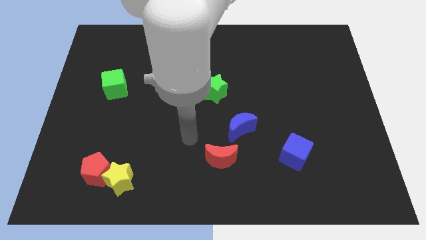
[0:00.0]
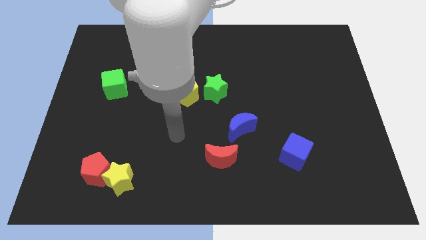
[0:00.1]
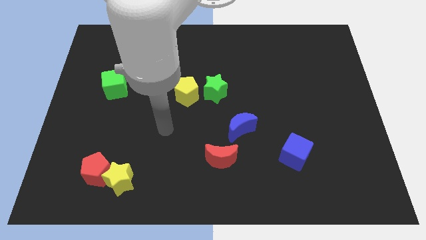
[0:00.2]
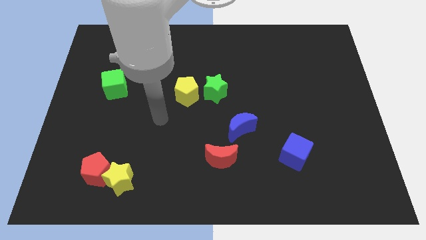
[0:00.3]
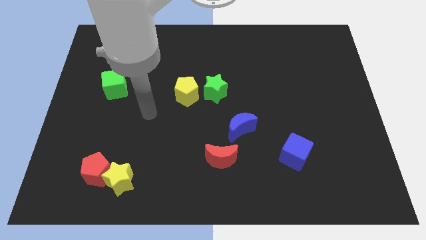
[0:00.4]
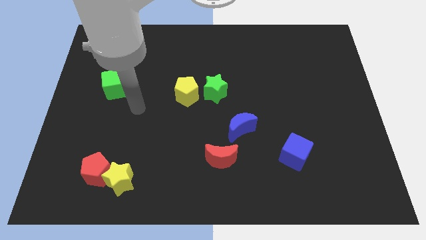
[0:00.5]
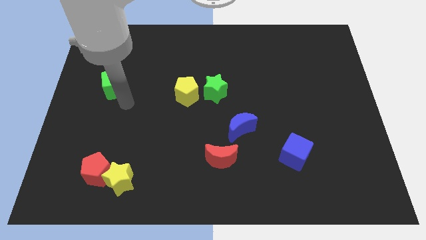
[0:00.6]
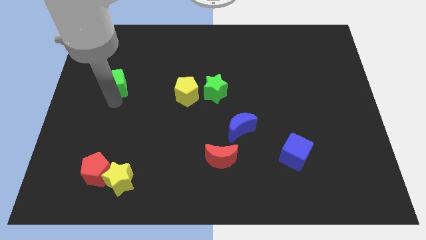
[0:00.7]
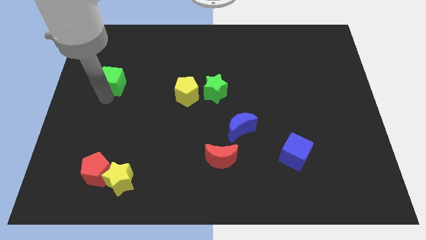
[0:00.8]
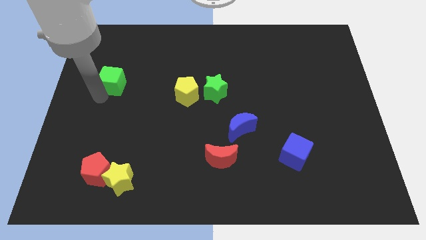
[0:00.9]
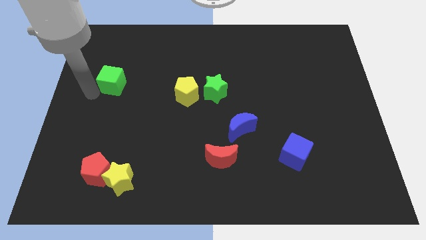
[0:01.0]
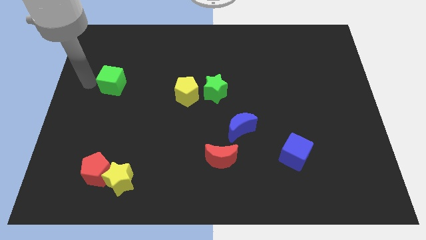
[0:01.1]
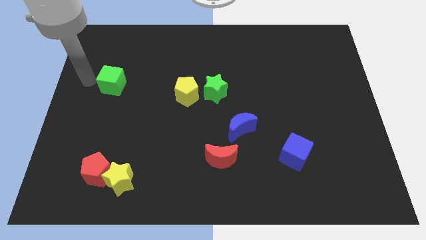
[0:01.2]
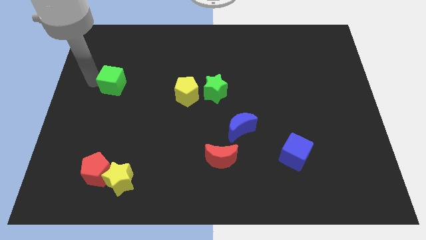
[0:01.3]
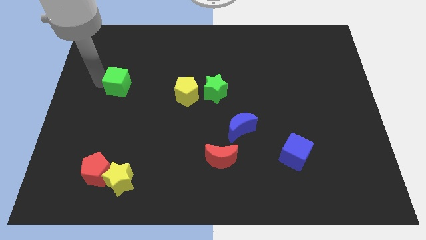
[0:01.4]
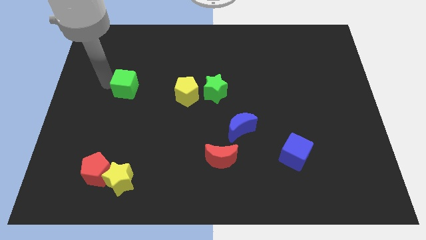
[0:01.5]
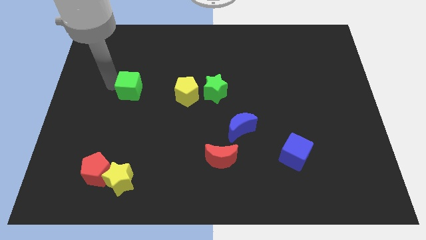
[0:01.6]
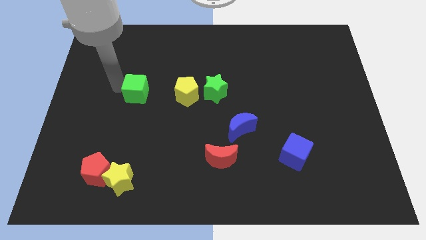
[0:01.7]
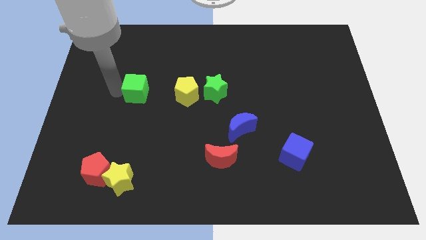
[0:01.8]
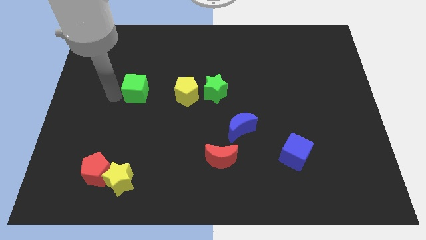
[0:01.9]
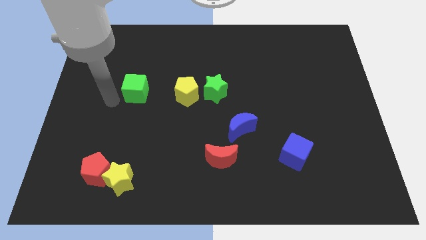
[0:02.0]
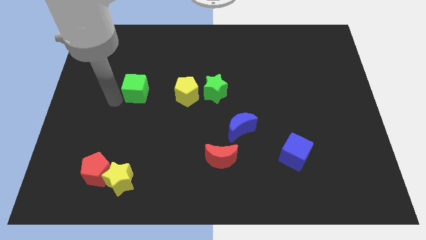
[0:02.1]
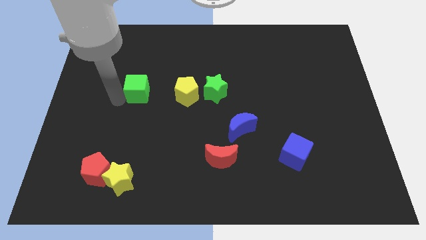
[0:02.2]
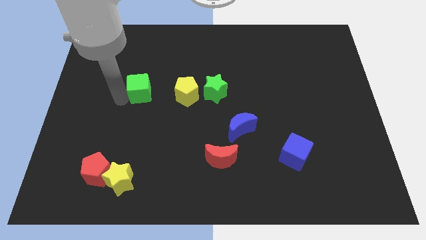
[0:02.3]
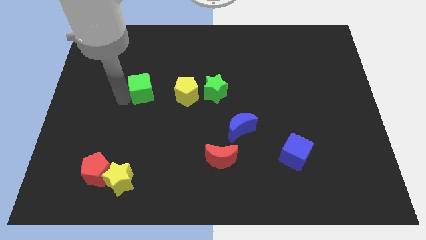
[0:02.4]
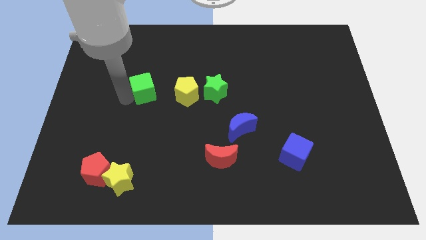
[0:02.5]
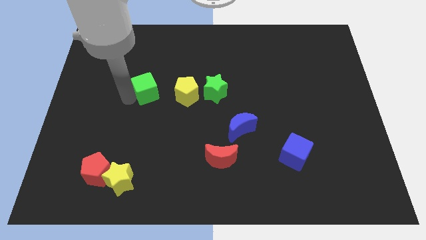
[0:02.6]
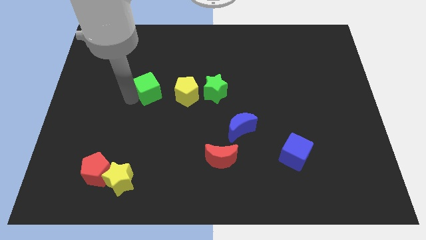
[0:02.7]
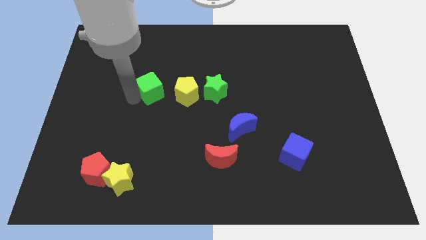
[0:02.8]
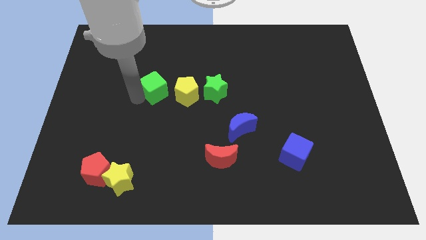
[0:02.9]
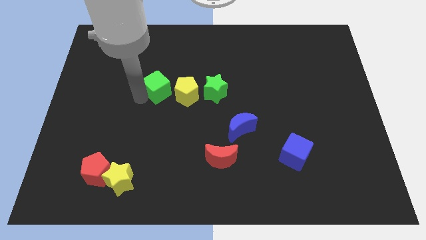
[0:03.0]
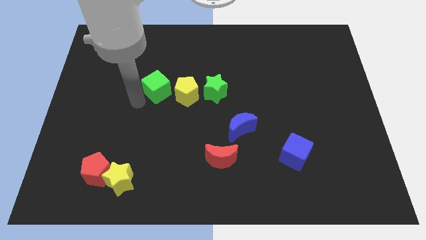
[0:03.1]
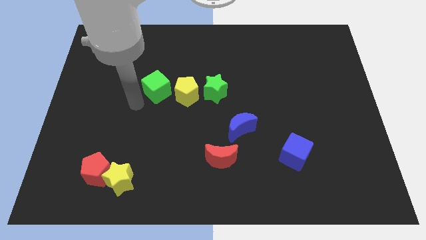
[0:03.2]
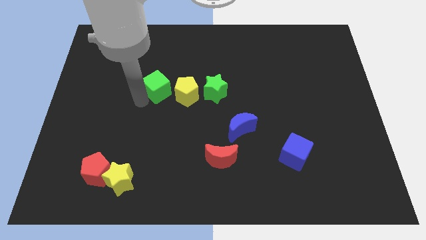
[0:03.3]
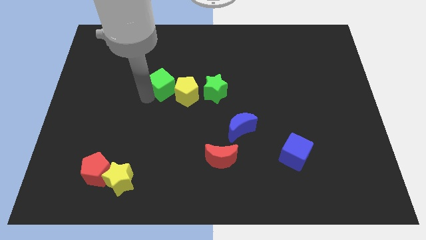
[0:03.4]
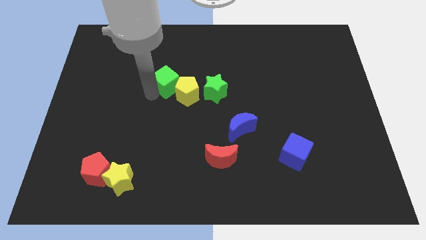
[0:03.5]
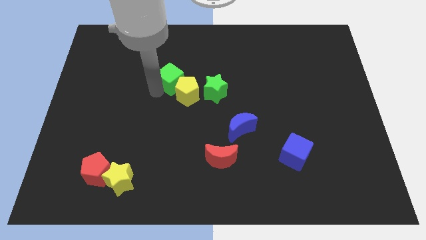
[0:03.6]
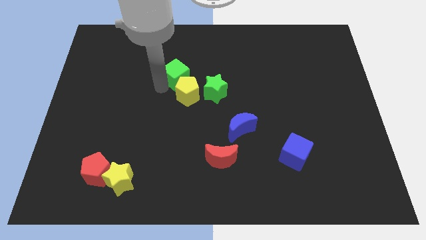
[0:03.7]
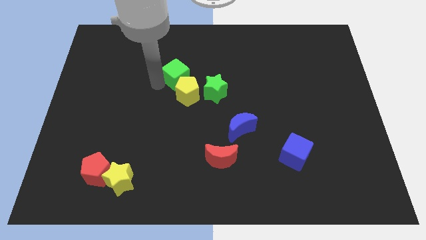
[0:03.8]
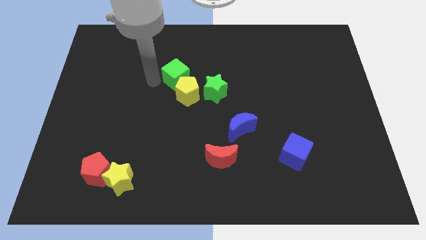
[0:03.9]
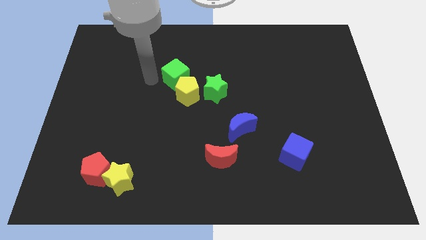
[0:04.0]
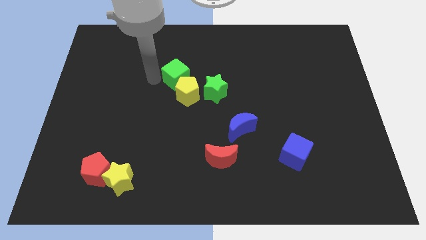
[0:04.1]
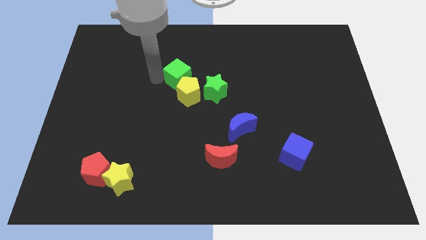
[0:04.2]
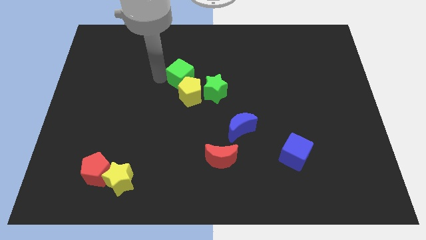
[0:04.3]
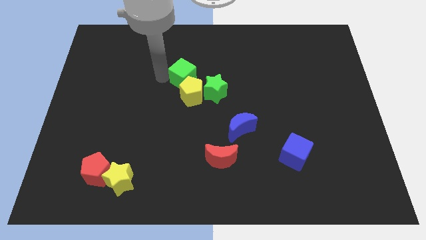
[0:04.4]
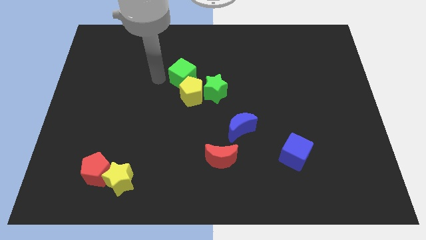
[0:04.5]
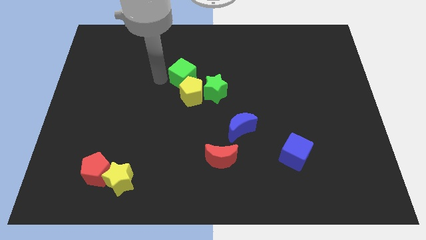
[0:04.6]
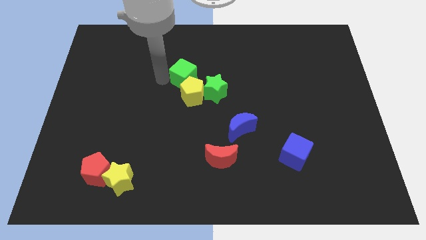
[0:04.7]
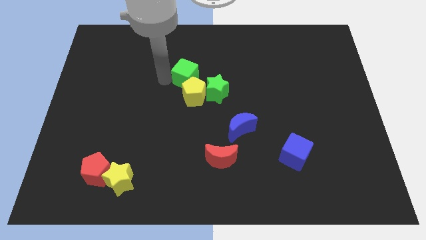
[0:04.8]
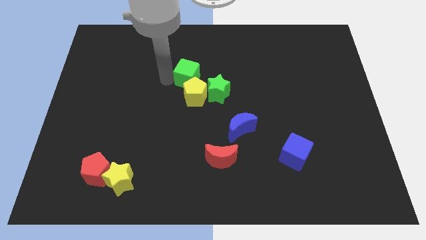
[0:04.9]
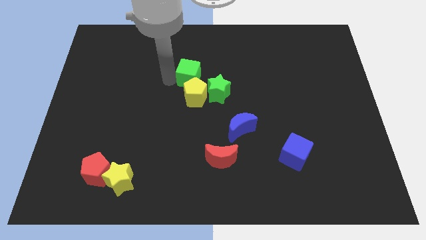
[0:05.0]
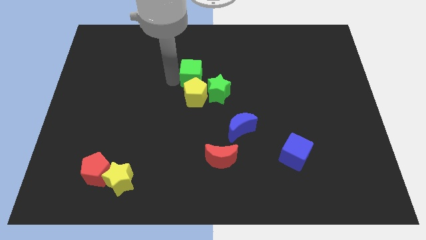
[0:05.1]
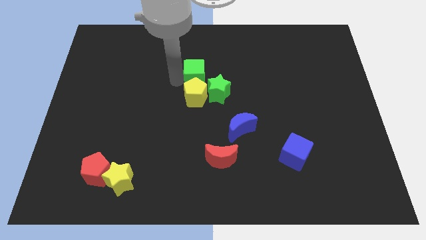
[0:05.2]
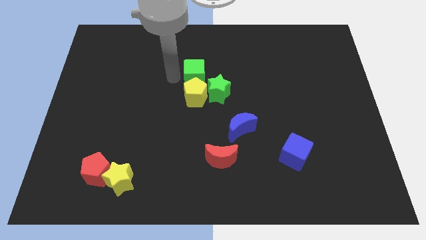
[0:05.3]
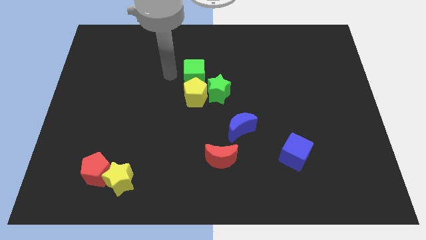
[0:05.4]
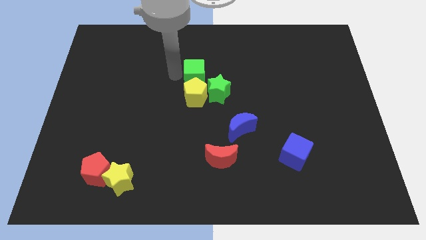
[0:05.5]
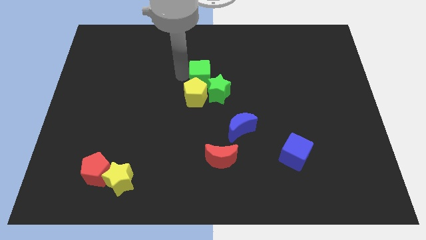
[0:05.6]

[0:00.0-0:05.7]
move the green cube to the right

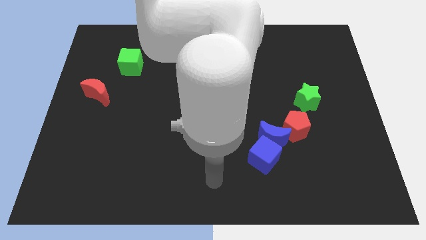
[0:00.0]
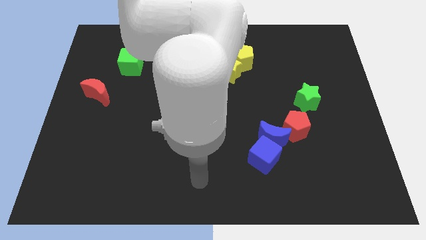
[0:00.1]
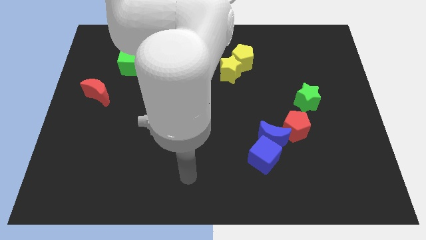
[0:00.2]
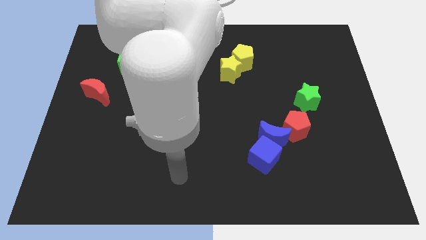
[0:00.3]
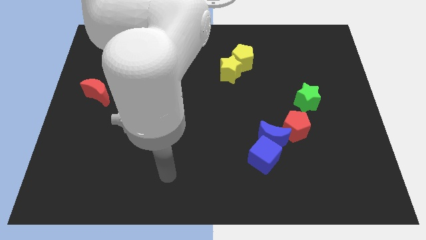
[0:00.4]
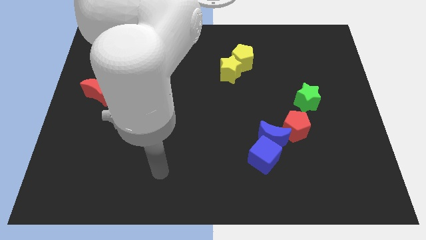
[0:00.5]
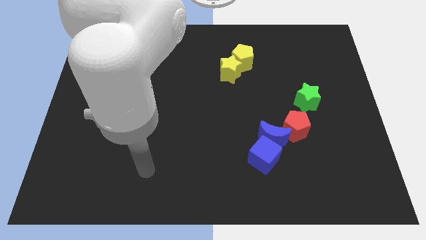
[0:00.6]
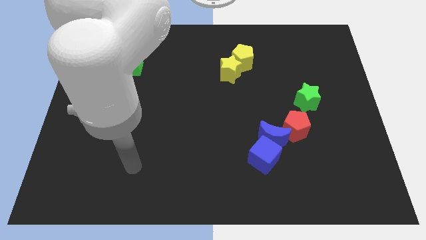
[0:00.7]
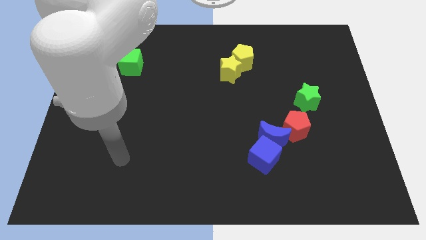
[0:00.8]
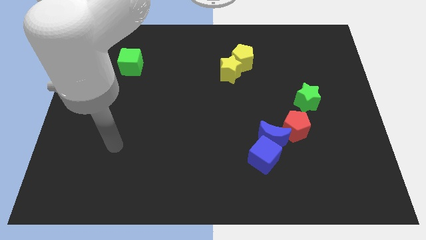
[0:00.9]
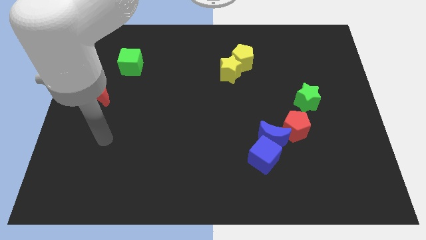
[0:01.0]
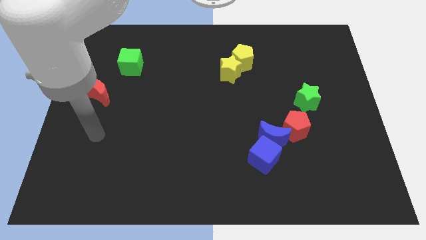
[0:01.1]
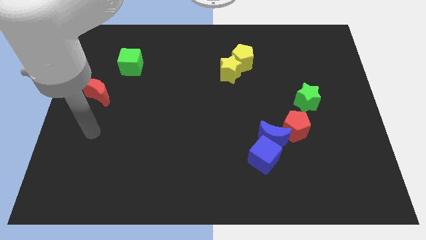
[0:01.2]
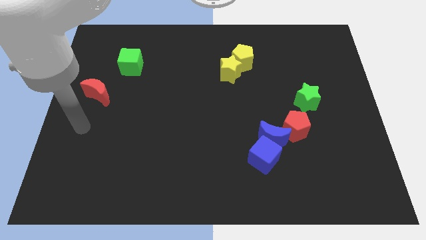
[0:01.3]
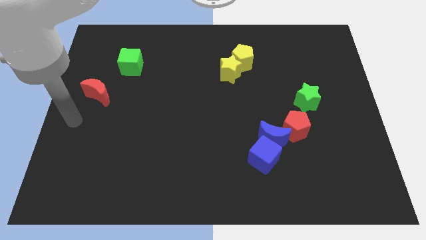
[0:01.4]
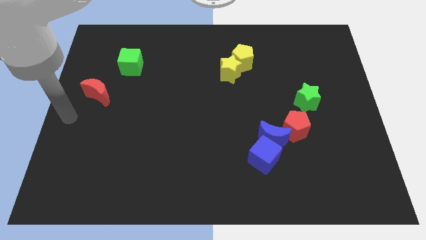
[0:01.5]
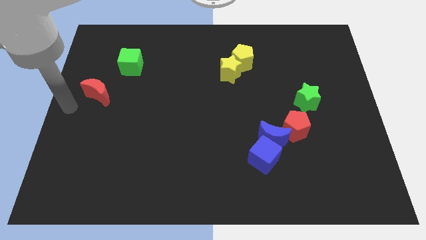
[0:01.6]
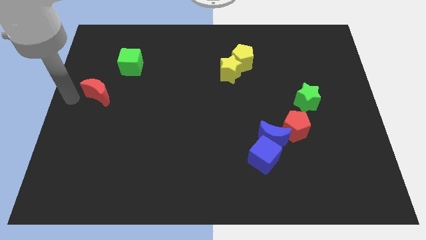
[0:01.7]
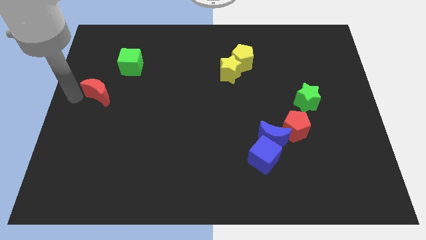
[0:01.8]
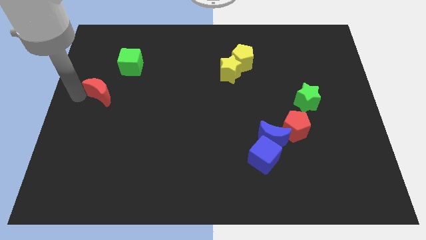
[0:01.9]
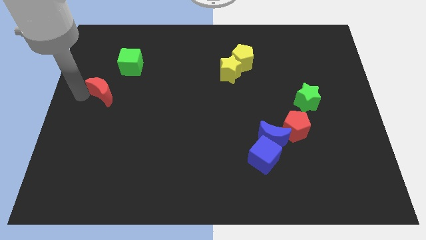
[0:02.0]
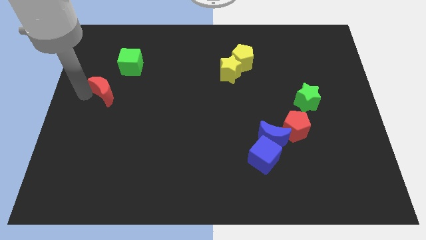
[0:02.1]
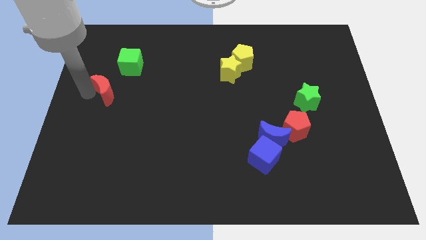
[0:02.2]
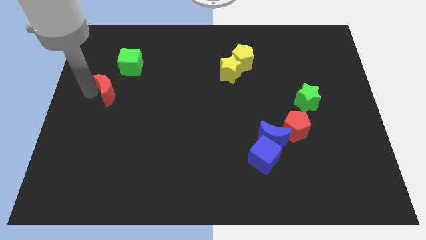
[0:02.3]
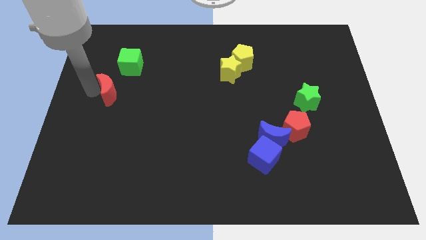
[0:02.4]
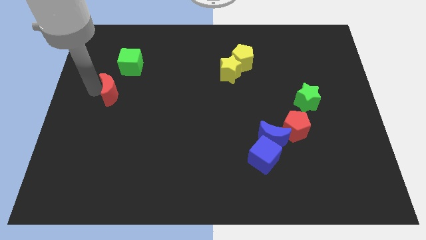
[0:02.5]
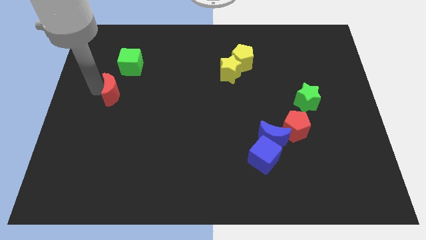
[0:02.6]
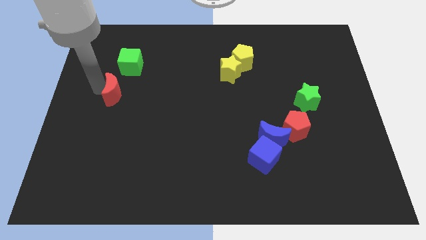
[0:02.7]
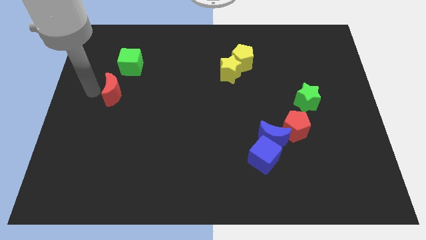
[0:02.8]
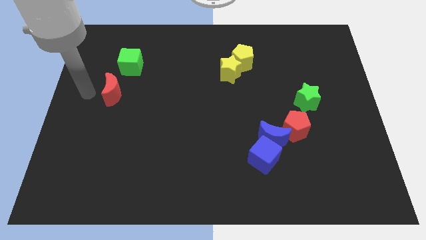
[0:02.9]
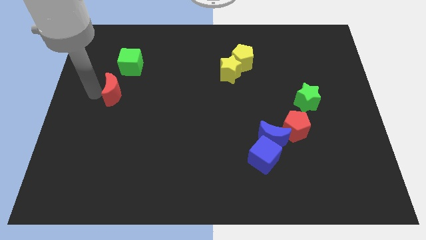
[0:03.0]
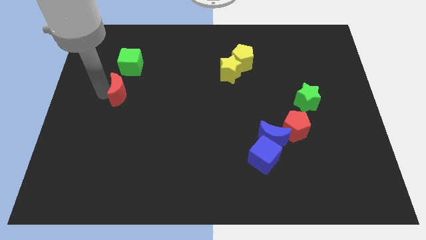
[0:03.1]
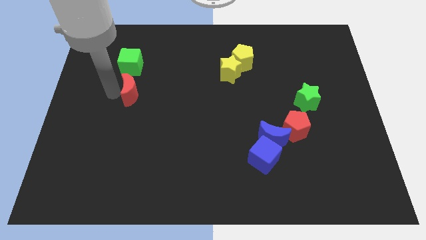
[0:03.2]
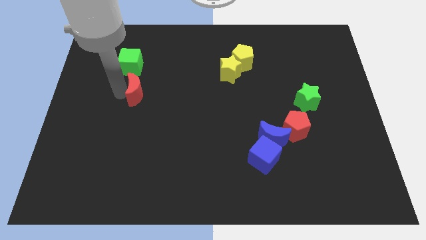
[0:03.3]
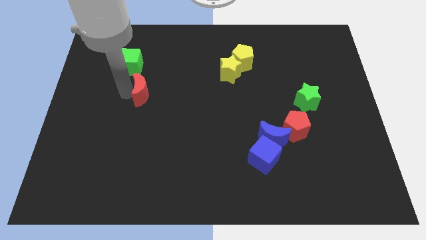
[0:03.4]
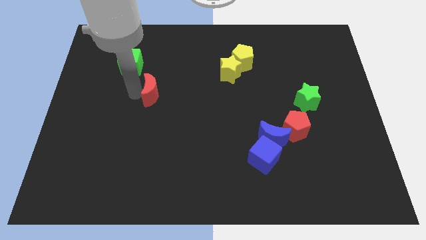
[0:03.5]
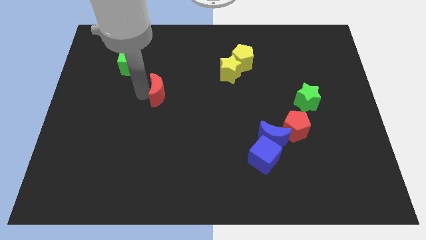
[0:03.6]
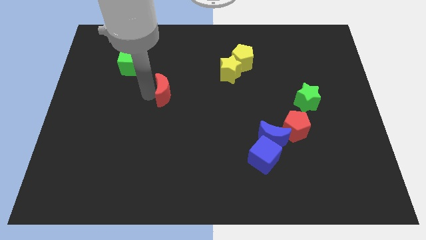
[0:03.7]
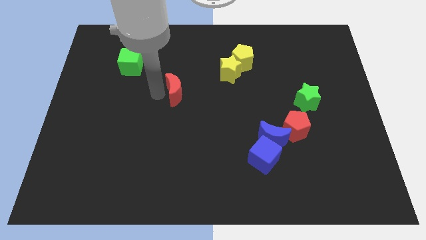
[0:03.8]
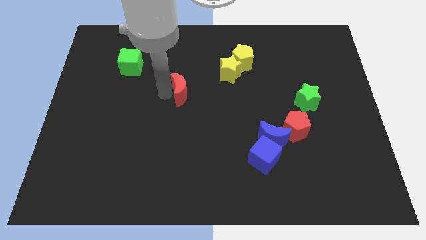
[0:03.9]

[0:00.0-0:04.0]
push the red moon to the right
